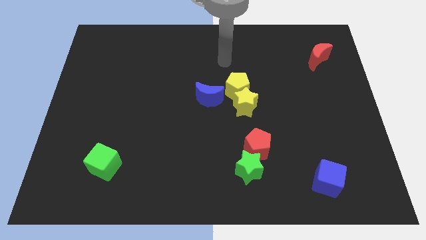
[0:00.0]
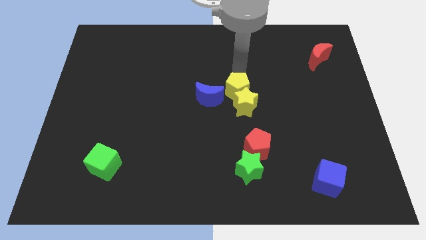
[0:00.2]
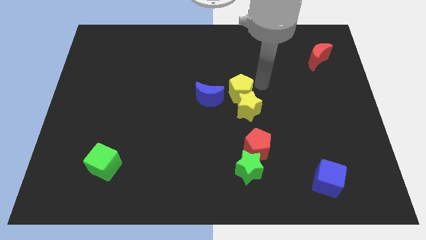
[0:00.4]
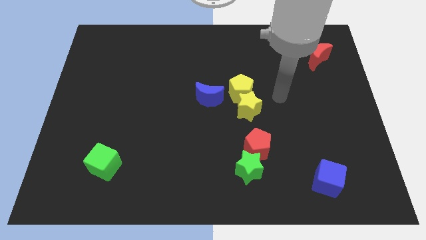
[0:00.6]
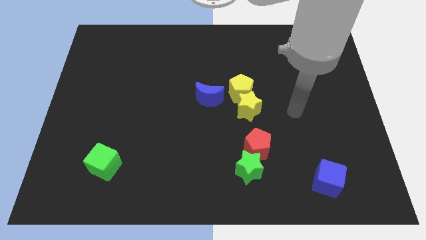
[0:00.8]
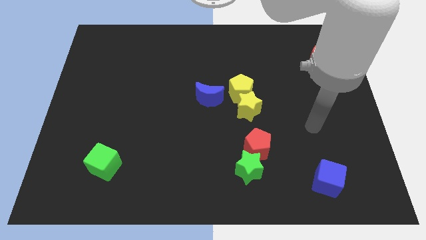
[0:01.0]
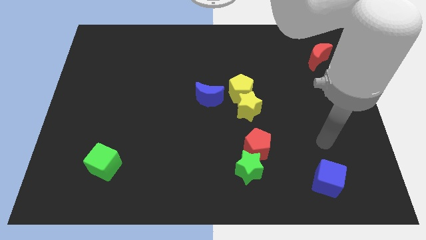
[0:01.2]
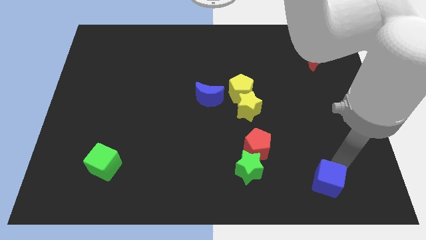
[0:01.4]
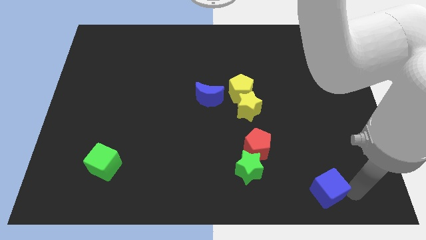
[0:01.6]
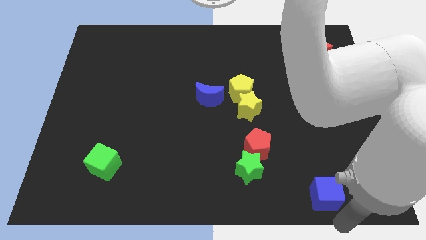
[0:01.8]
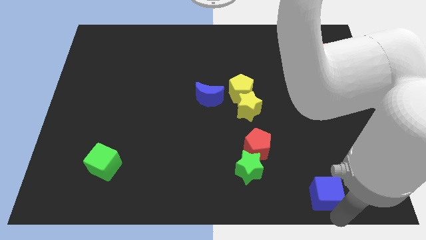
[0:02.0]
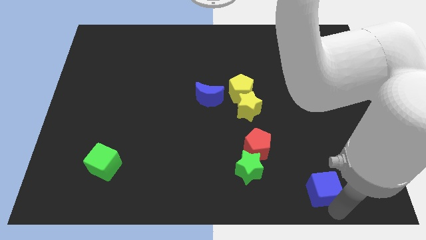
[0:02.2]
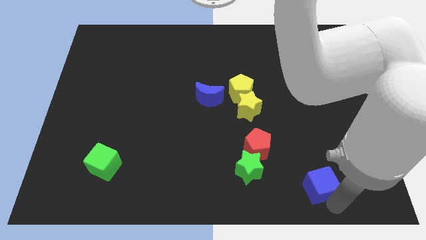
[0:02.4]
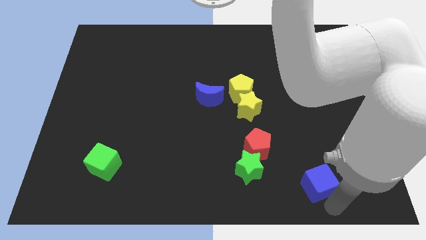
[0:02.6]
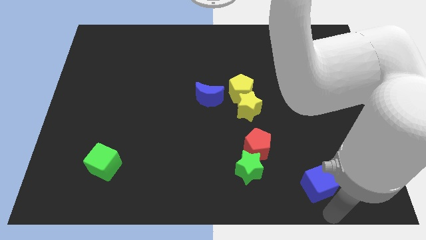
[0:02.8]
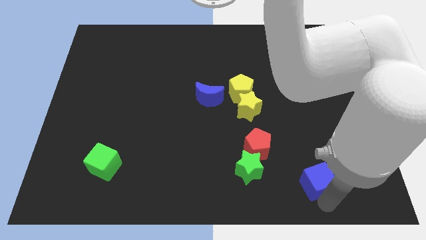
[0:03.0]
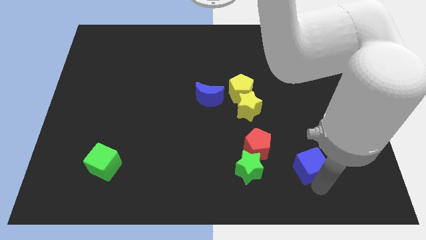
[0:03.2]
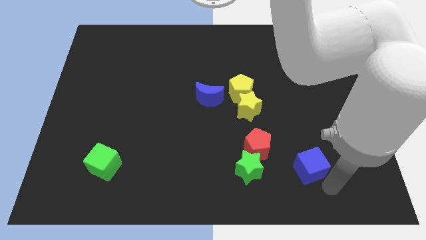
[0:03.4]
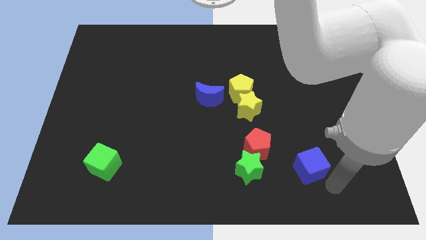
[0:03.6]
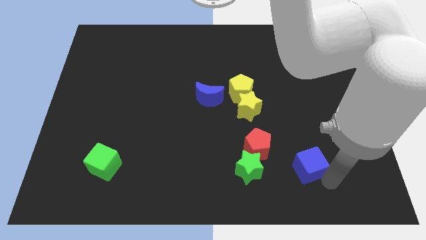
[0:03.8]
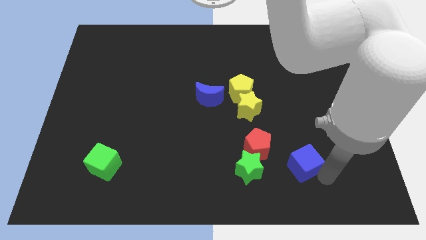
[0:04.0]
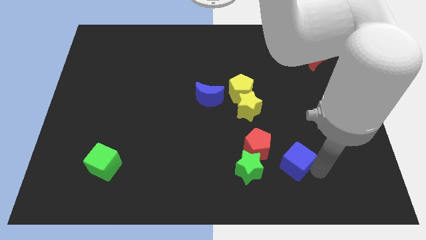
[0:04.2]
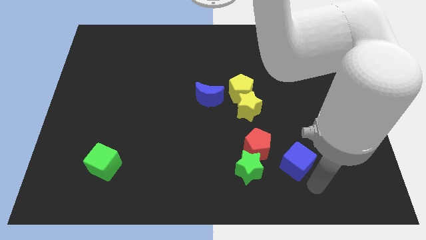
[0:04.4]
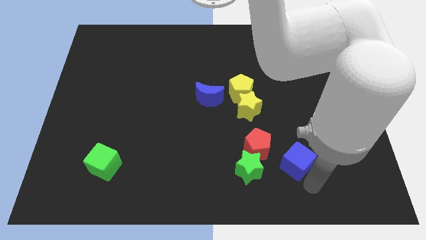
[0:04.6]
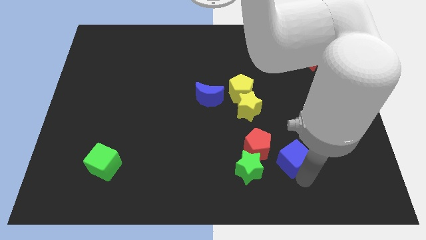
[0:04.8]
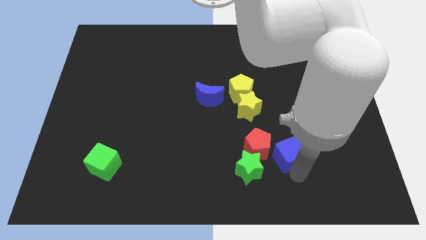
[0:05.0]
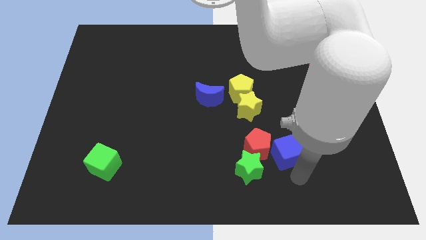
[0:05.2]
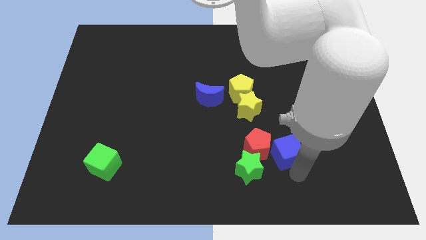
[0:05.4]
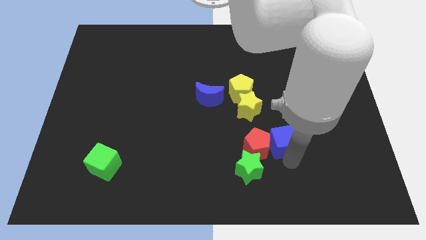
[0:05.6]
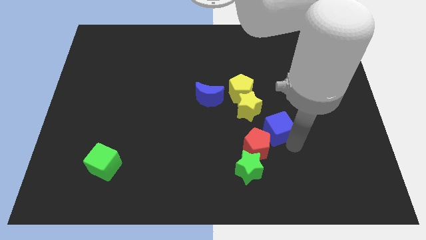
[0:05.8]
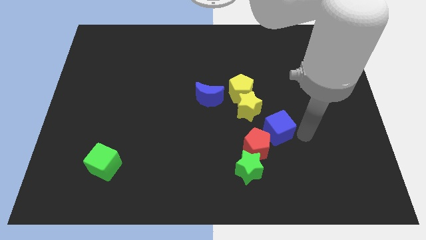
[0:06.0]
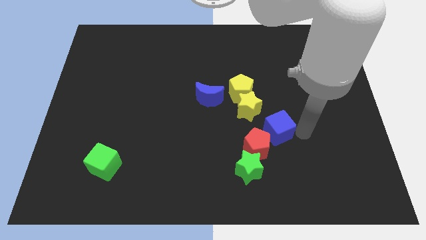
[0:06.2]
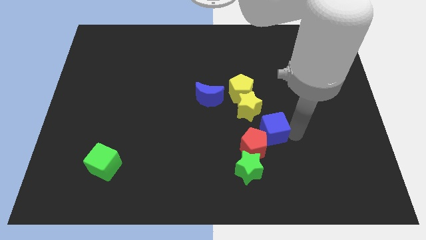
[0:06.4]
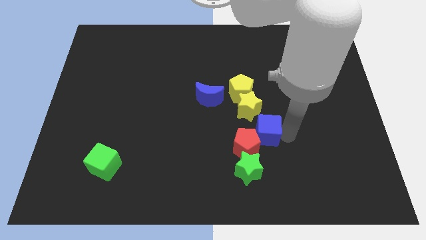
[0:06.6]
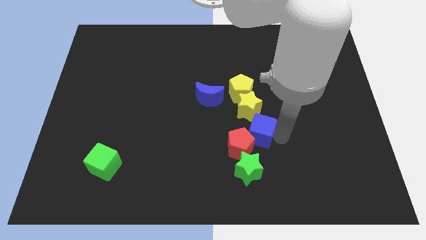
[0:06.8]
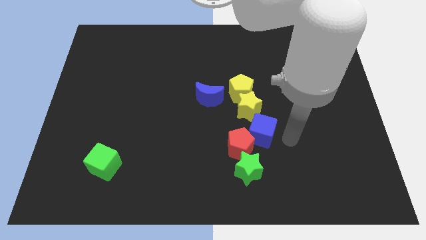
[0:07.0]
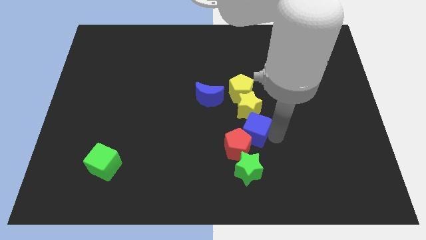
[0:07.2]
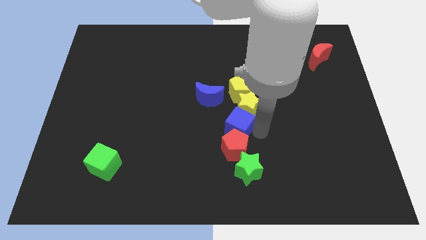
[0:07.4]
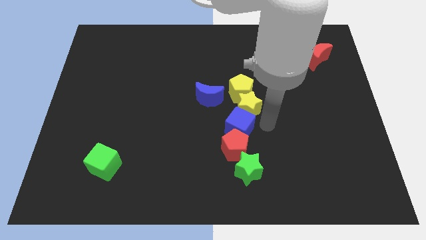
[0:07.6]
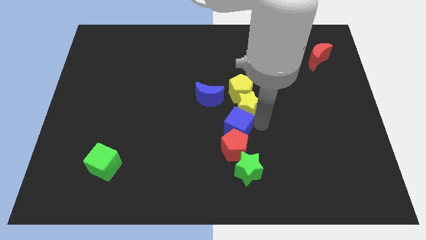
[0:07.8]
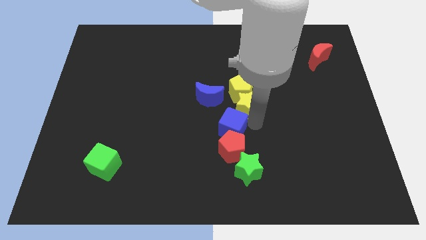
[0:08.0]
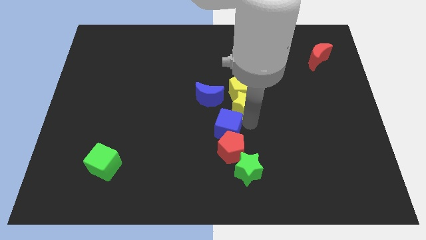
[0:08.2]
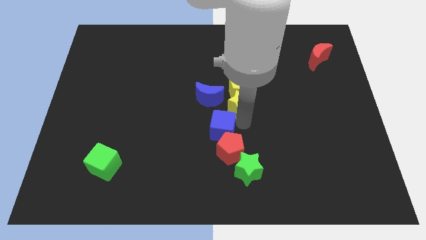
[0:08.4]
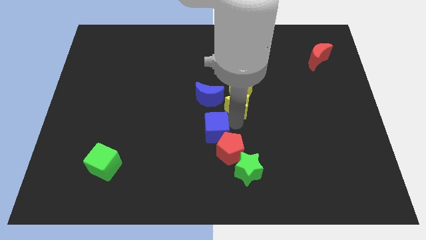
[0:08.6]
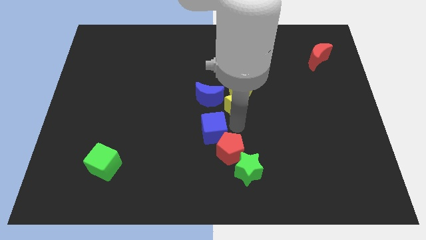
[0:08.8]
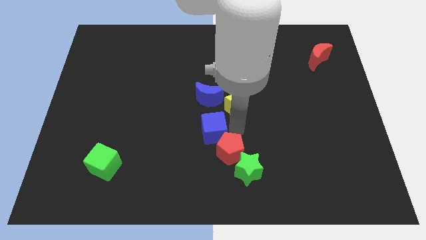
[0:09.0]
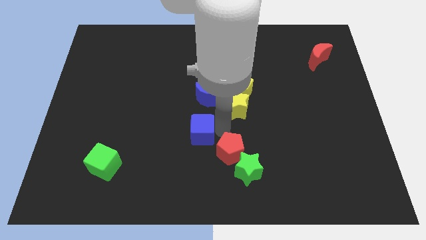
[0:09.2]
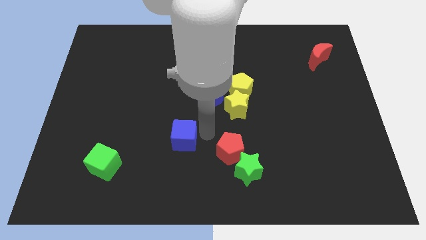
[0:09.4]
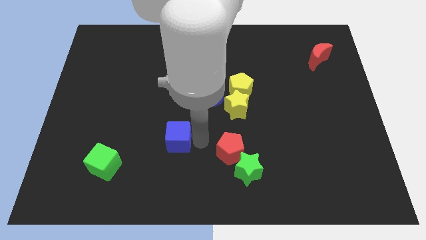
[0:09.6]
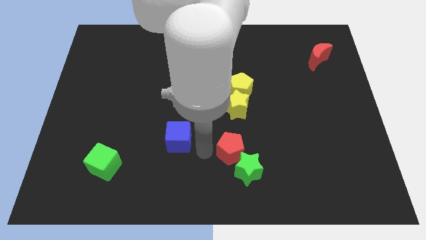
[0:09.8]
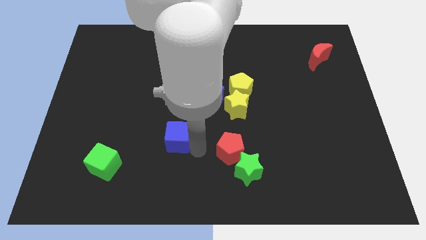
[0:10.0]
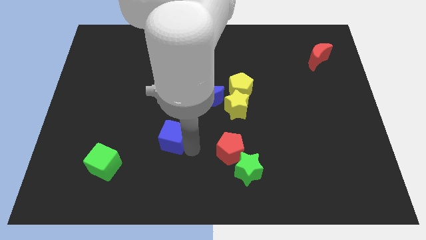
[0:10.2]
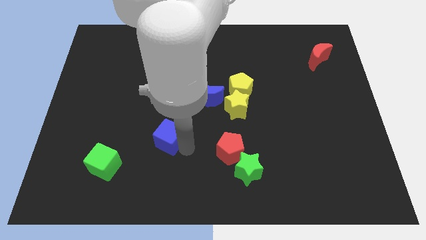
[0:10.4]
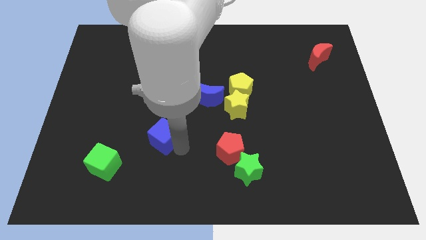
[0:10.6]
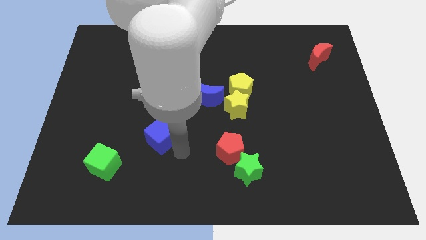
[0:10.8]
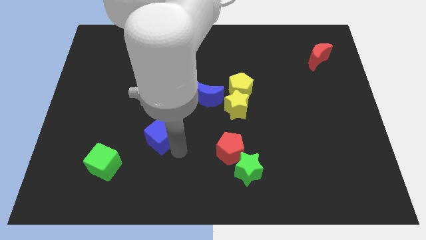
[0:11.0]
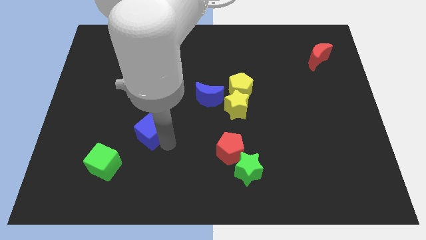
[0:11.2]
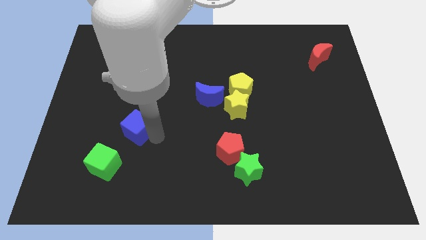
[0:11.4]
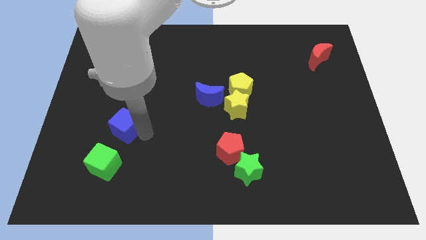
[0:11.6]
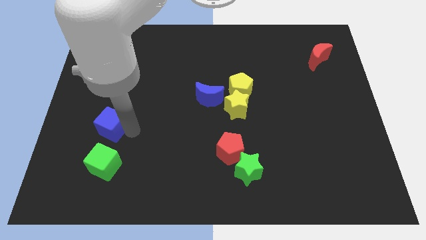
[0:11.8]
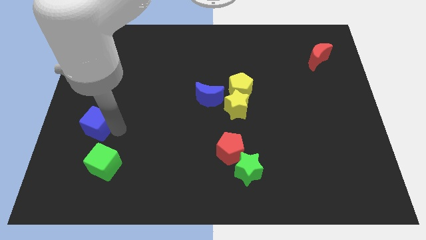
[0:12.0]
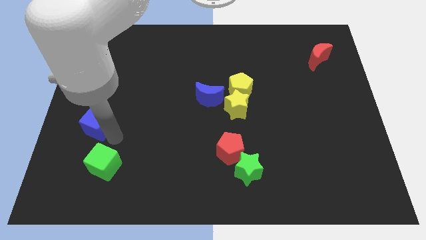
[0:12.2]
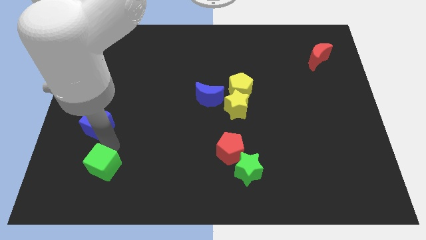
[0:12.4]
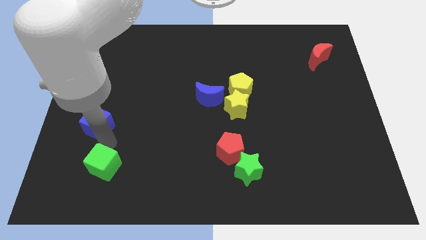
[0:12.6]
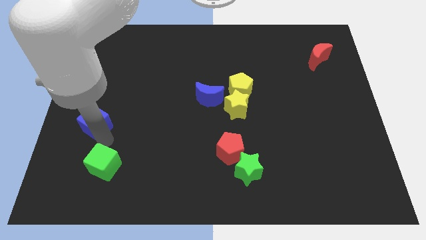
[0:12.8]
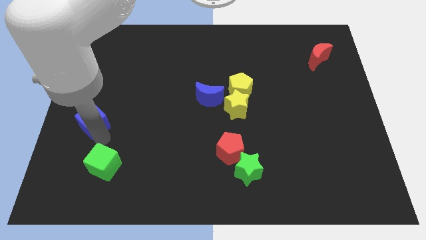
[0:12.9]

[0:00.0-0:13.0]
move the blue cube to the center left
